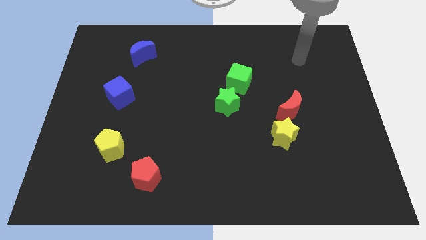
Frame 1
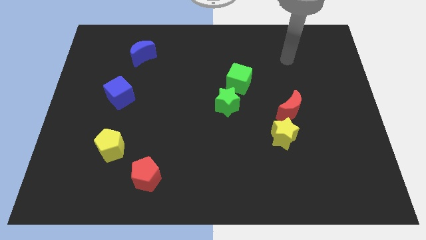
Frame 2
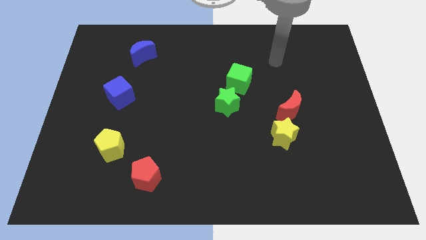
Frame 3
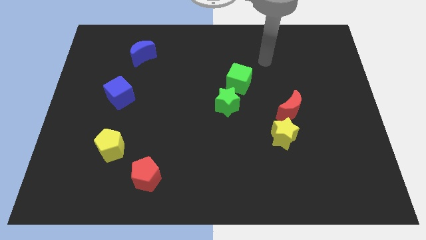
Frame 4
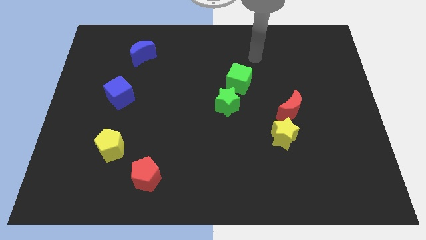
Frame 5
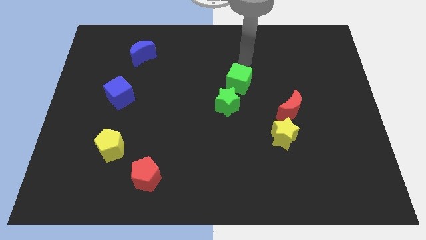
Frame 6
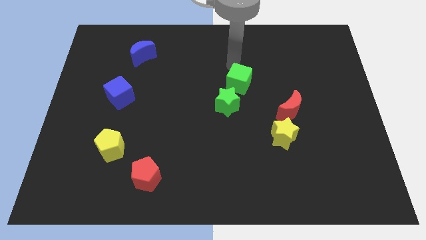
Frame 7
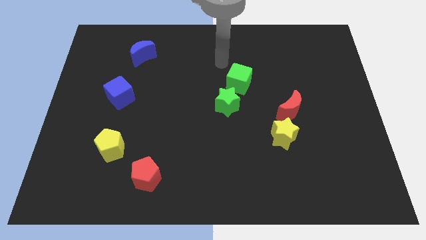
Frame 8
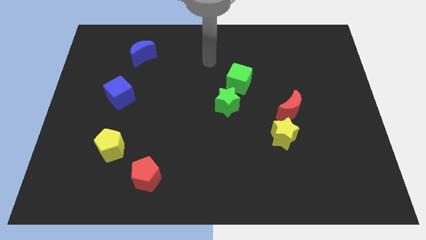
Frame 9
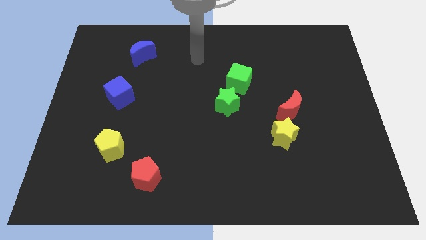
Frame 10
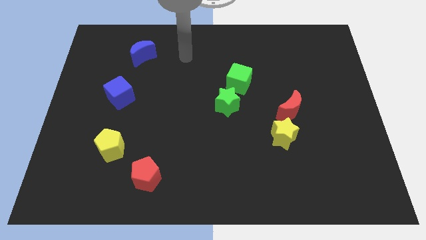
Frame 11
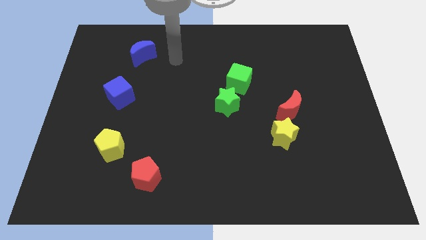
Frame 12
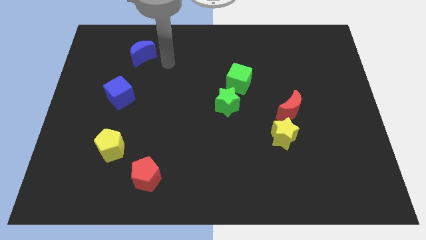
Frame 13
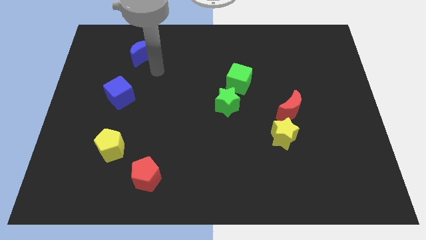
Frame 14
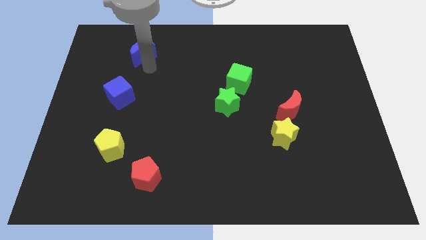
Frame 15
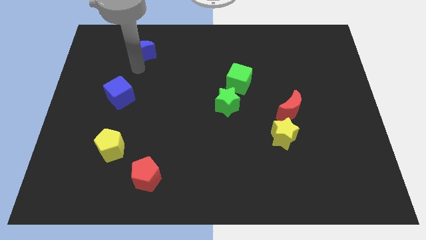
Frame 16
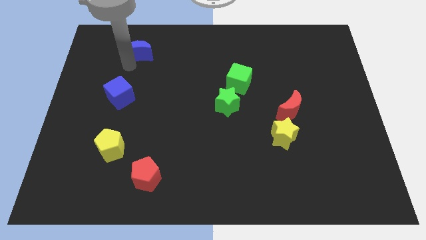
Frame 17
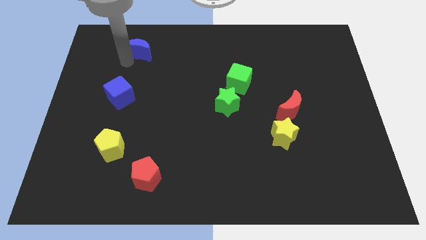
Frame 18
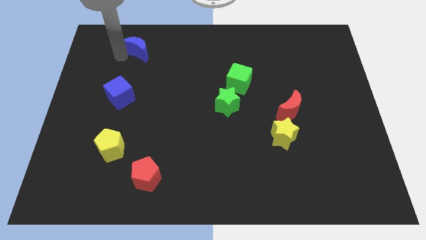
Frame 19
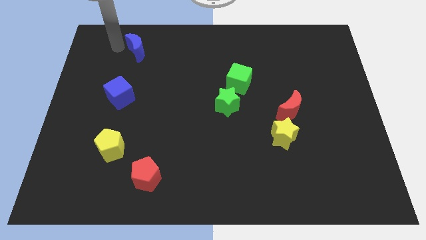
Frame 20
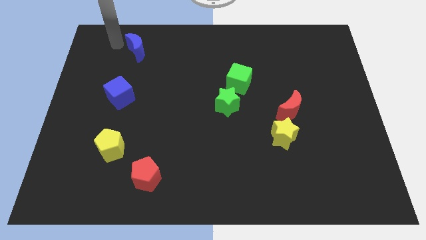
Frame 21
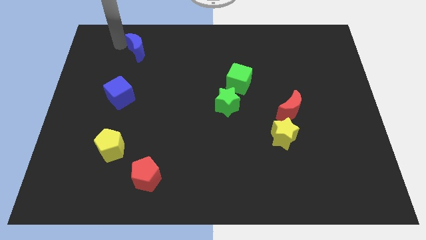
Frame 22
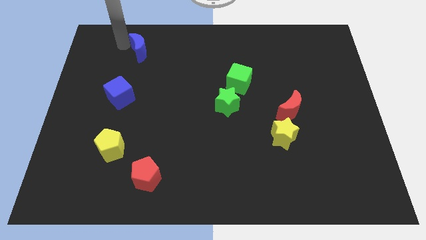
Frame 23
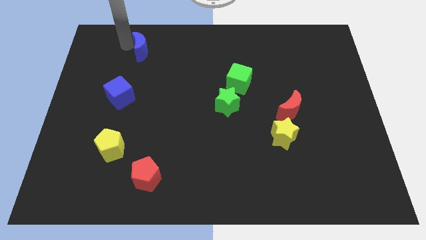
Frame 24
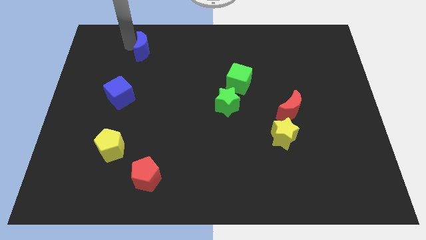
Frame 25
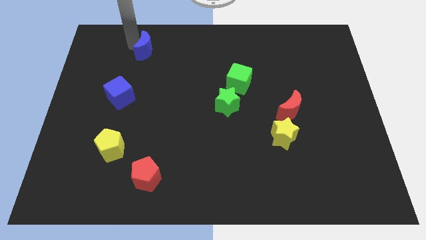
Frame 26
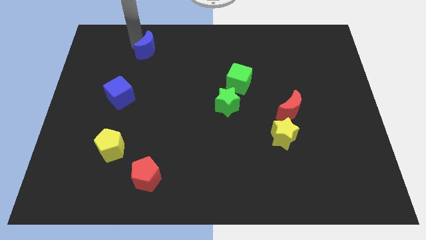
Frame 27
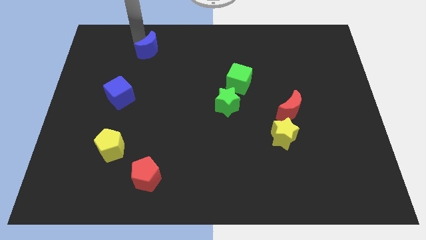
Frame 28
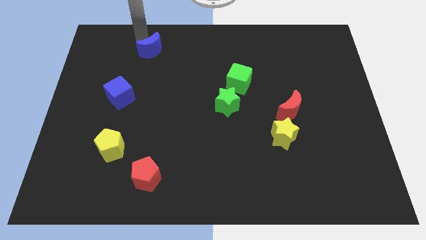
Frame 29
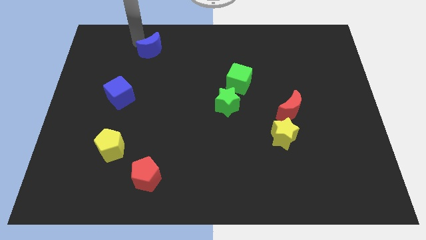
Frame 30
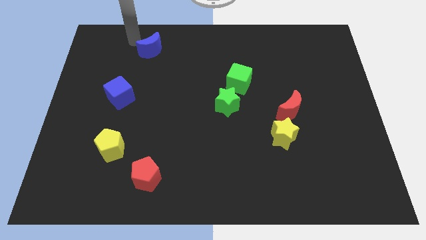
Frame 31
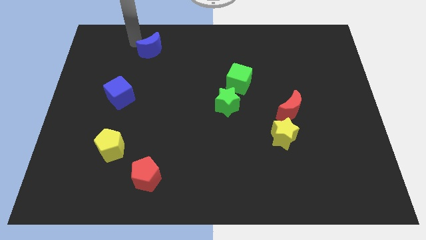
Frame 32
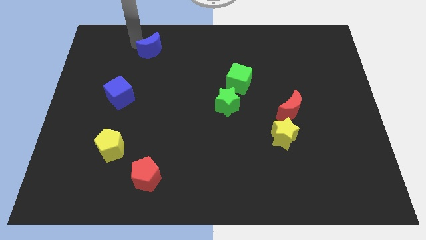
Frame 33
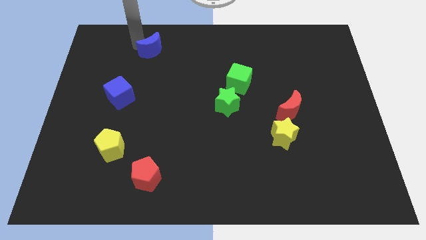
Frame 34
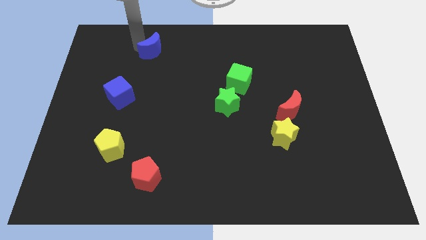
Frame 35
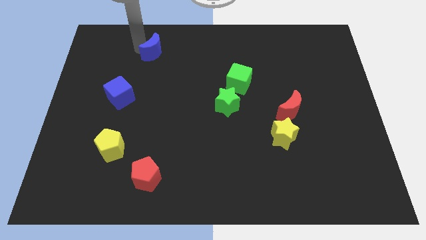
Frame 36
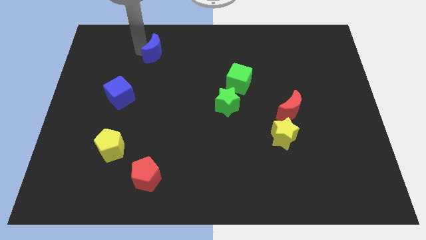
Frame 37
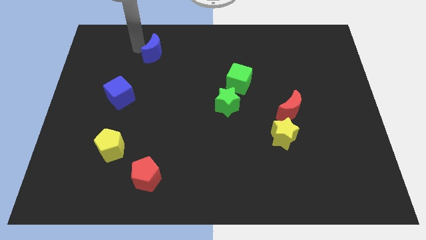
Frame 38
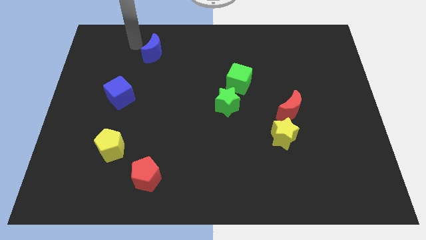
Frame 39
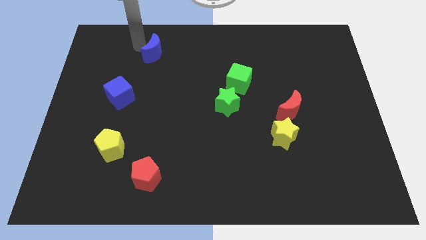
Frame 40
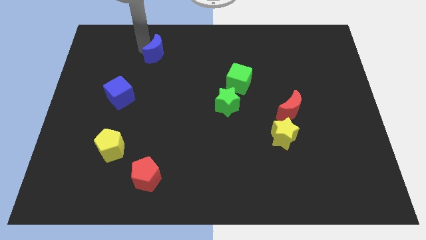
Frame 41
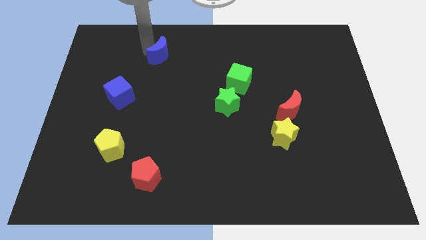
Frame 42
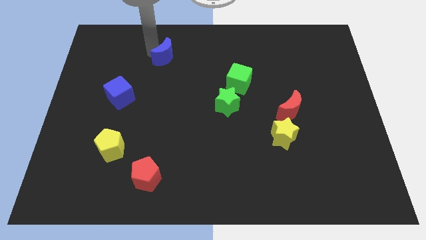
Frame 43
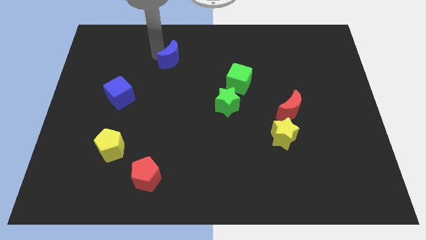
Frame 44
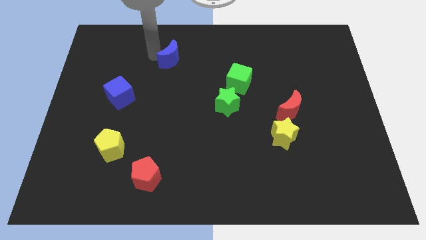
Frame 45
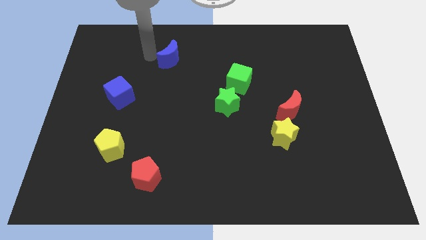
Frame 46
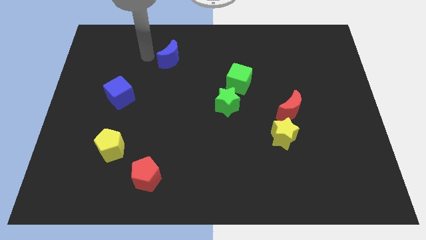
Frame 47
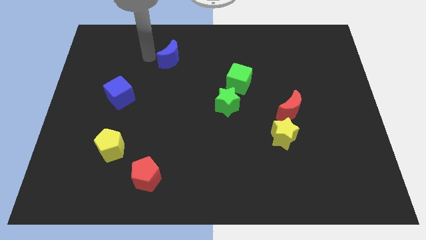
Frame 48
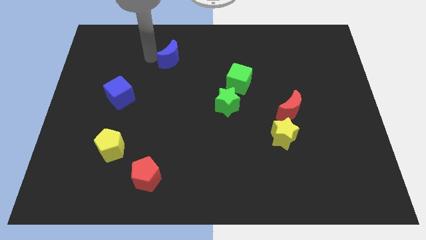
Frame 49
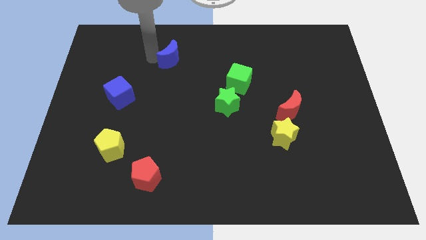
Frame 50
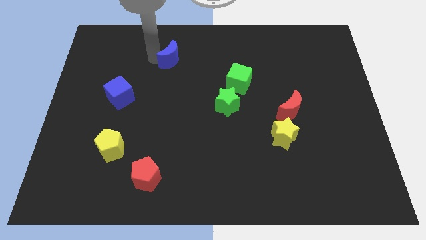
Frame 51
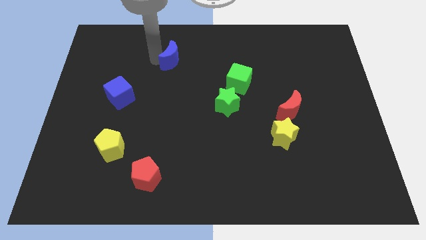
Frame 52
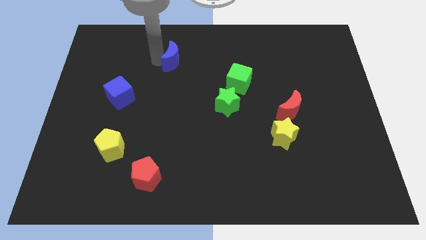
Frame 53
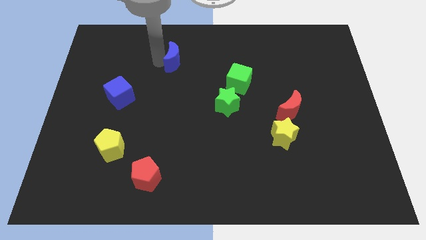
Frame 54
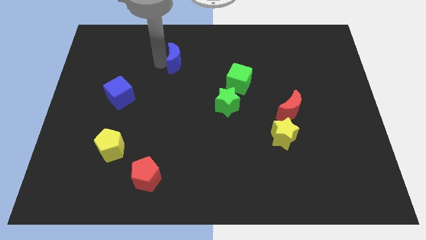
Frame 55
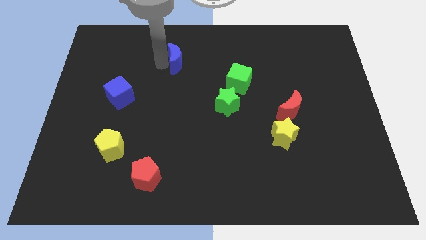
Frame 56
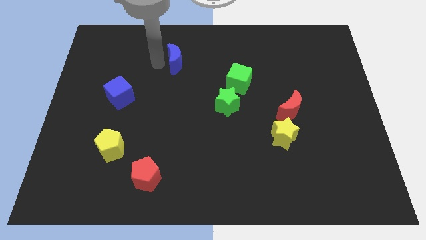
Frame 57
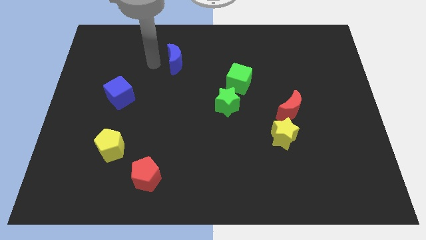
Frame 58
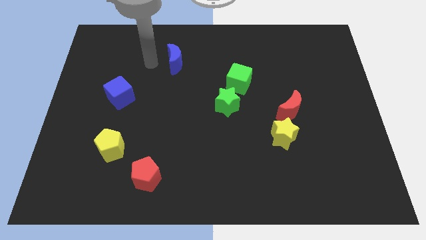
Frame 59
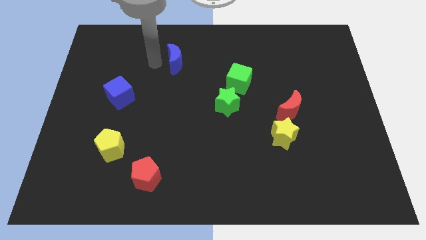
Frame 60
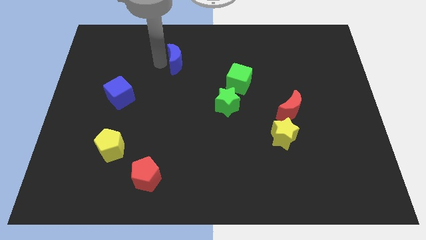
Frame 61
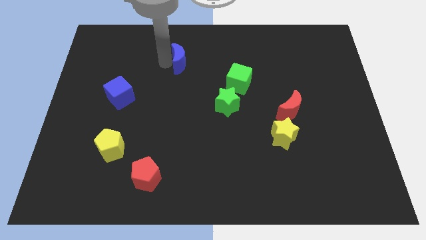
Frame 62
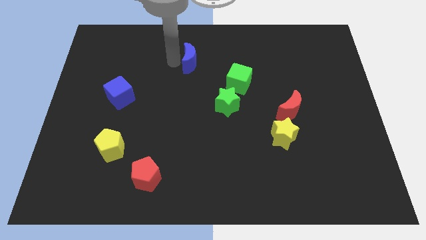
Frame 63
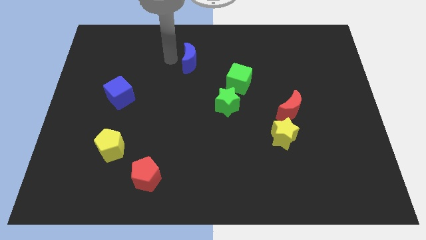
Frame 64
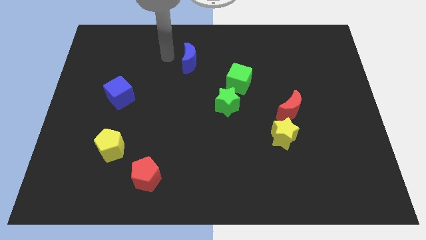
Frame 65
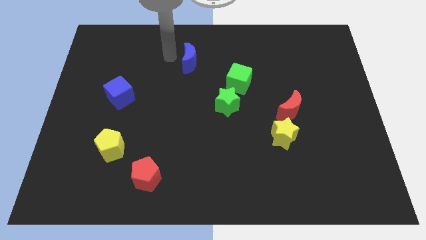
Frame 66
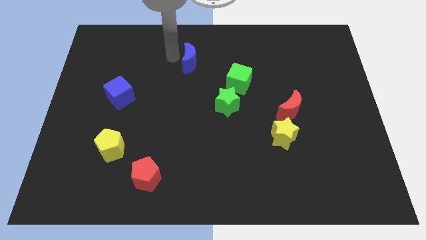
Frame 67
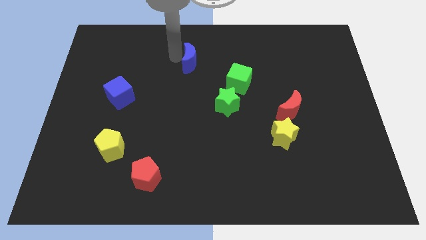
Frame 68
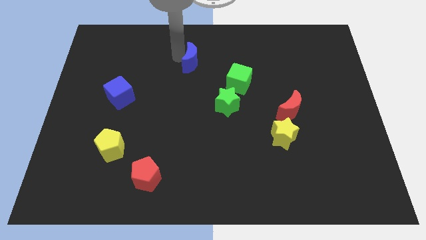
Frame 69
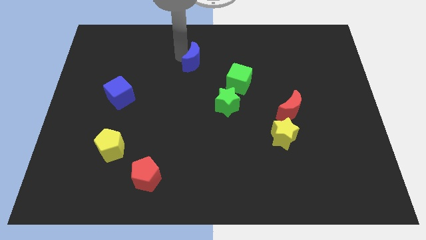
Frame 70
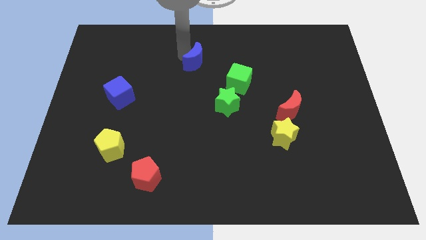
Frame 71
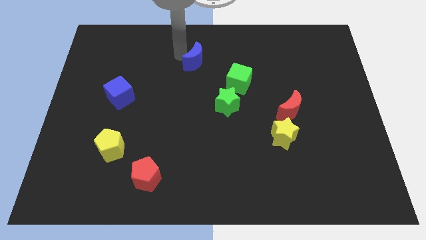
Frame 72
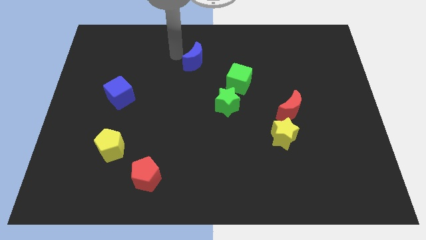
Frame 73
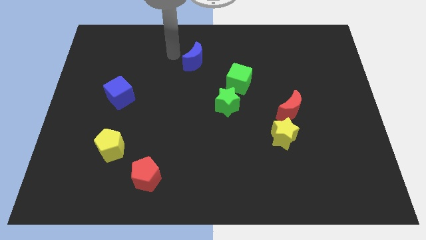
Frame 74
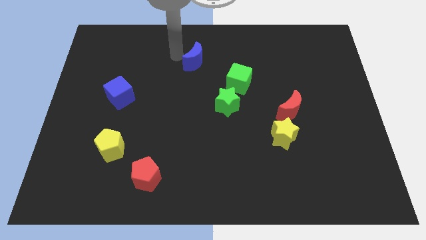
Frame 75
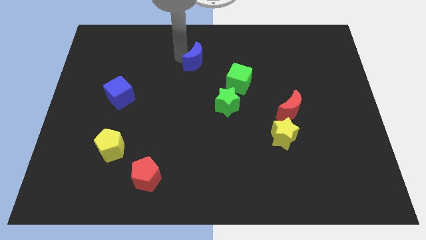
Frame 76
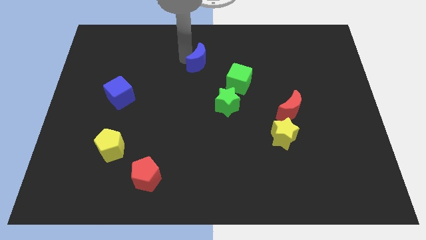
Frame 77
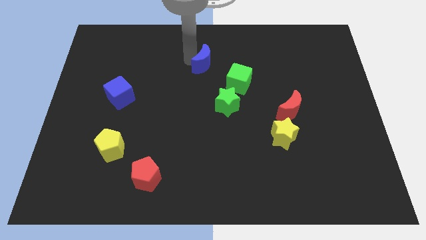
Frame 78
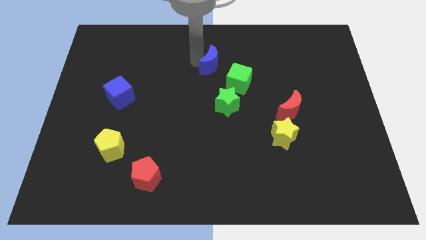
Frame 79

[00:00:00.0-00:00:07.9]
slide the blue moon above the green star
